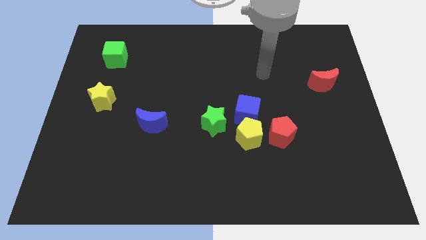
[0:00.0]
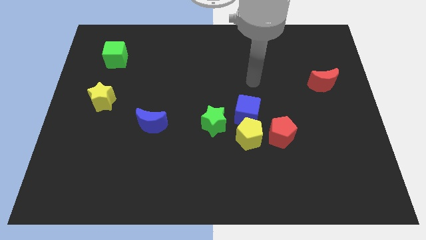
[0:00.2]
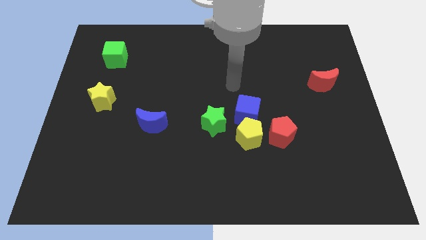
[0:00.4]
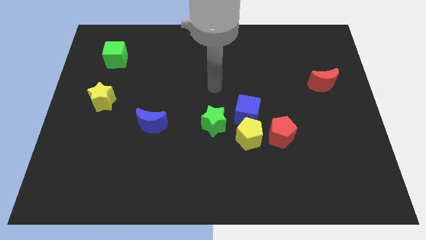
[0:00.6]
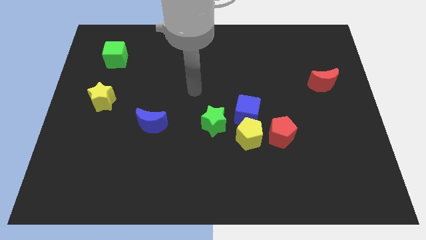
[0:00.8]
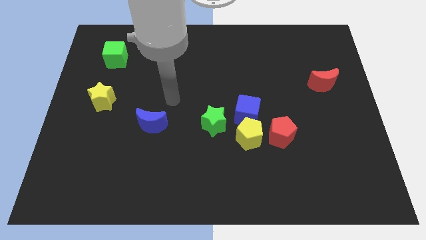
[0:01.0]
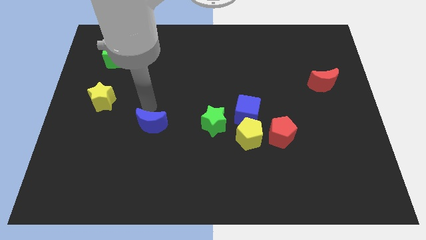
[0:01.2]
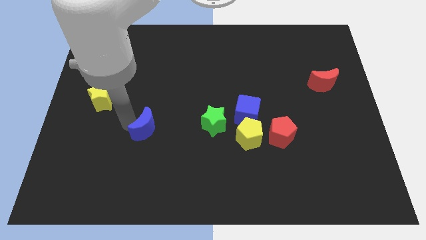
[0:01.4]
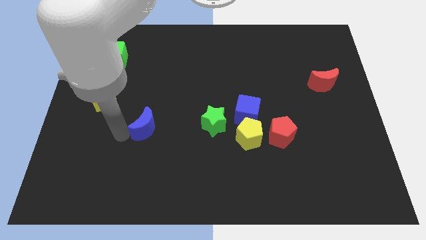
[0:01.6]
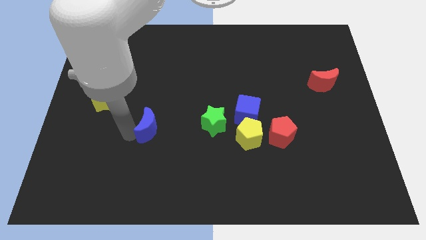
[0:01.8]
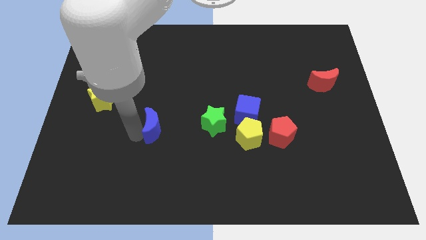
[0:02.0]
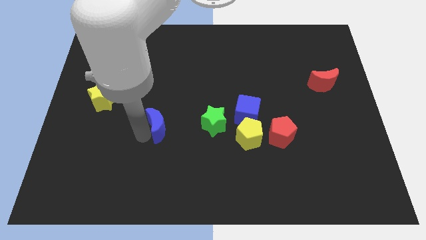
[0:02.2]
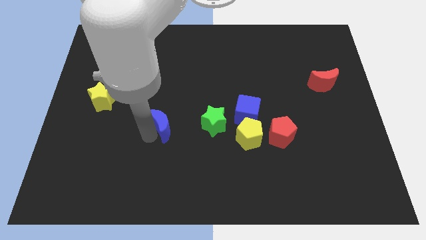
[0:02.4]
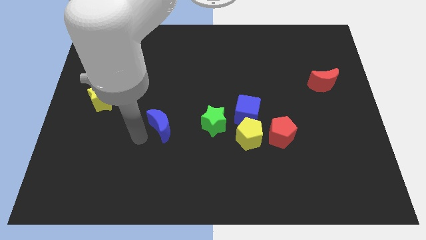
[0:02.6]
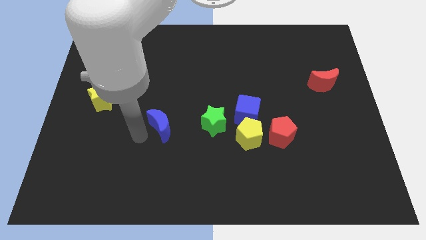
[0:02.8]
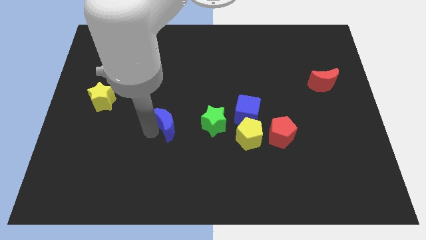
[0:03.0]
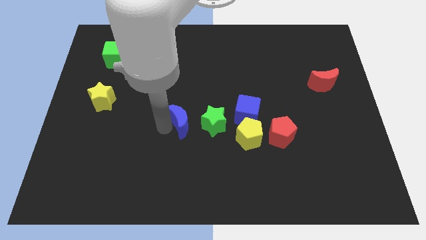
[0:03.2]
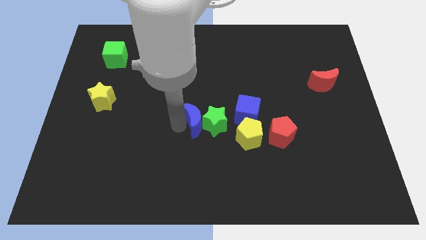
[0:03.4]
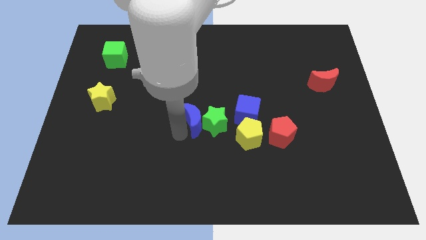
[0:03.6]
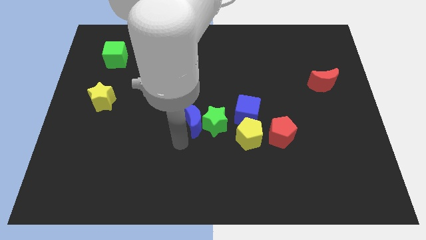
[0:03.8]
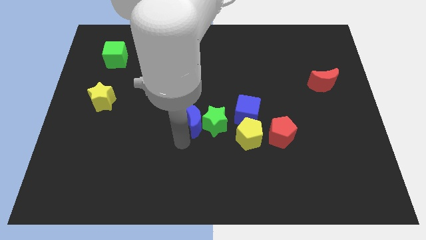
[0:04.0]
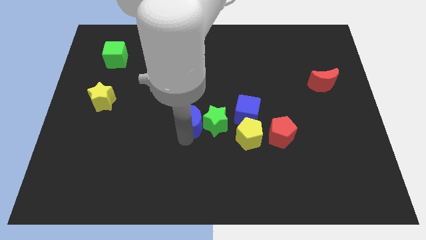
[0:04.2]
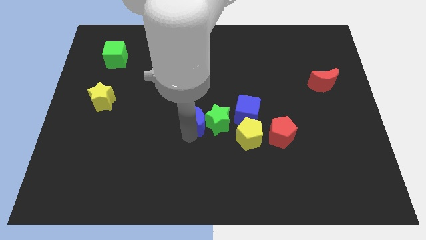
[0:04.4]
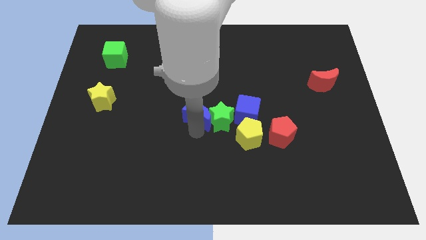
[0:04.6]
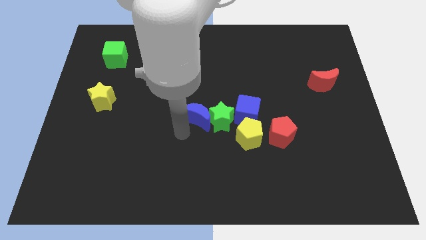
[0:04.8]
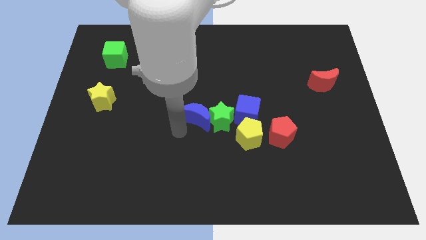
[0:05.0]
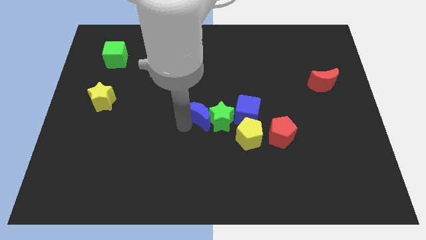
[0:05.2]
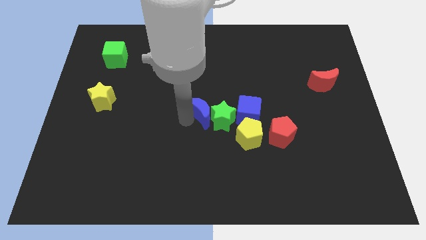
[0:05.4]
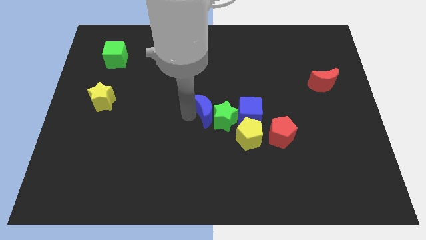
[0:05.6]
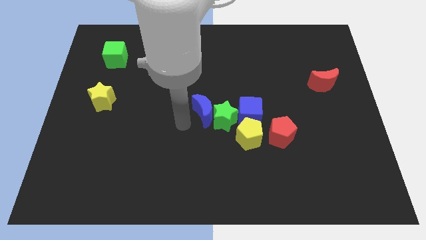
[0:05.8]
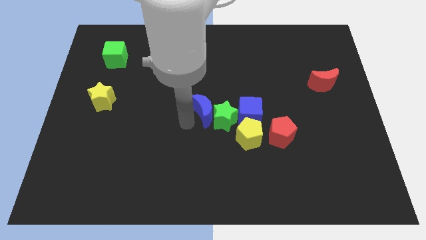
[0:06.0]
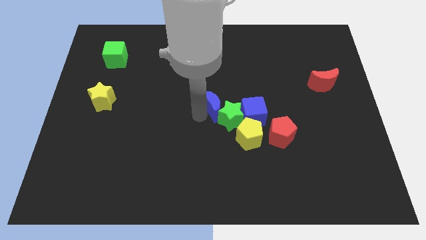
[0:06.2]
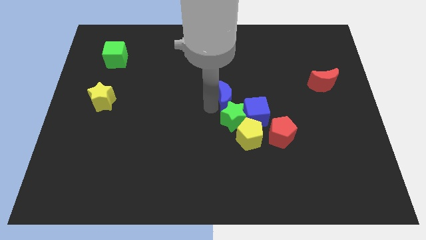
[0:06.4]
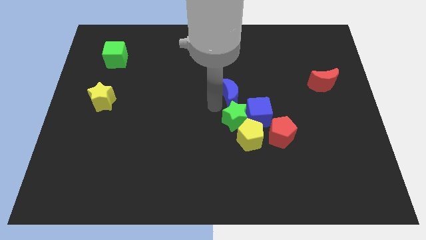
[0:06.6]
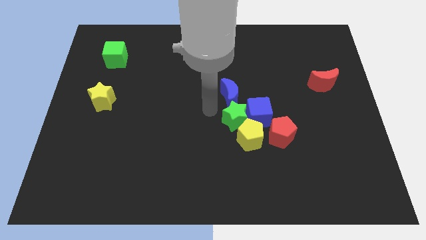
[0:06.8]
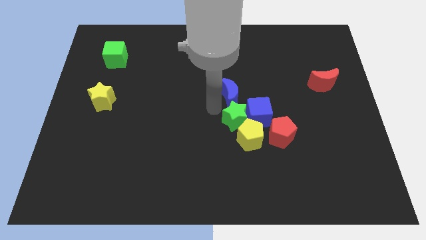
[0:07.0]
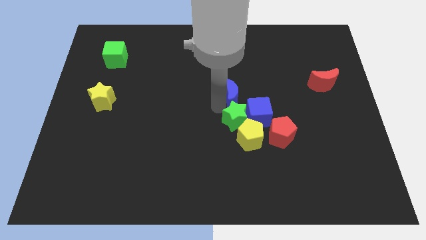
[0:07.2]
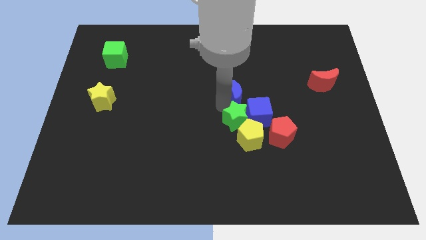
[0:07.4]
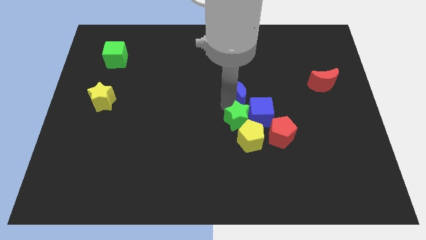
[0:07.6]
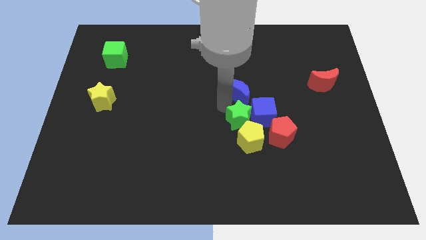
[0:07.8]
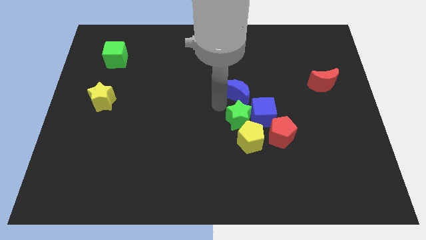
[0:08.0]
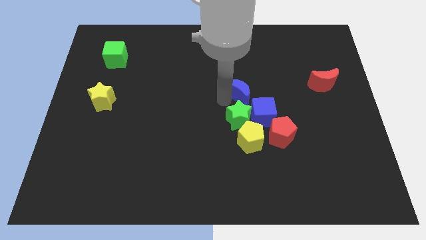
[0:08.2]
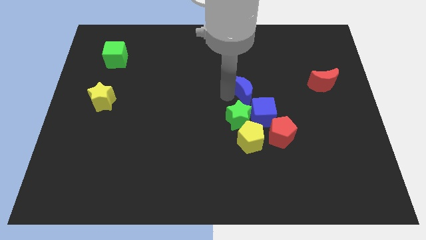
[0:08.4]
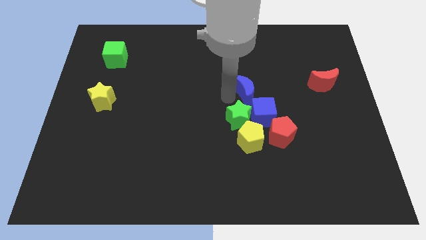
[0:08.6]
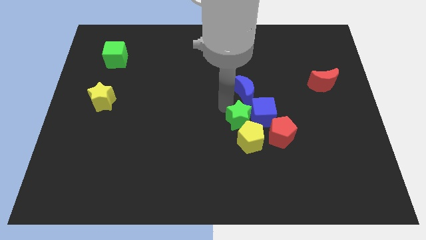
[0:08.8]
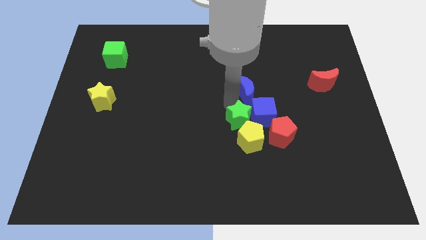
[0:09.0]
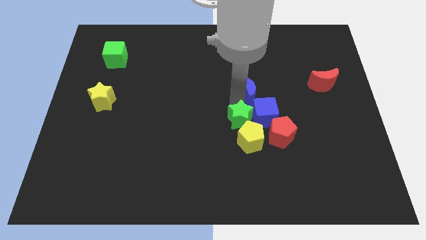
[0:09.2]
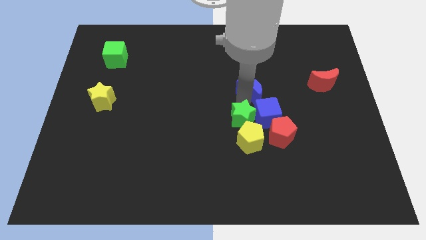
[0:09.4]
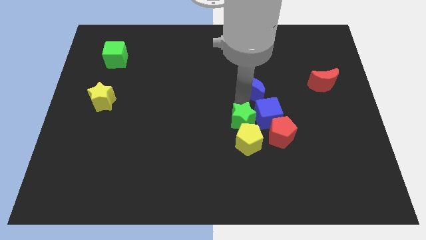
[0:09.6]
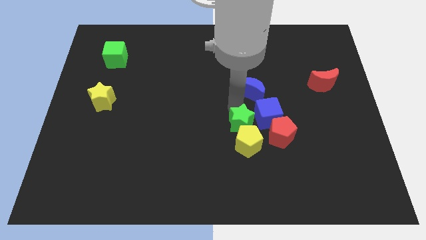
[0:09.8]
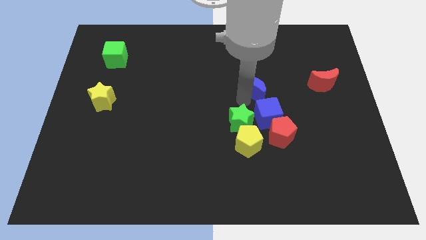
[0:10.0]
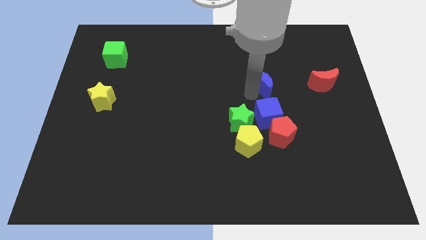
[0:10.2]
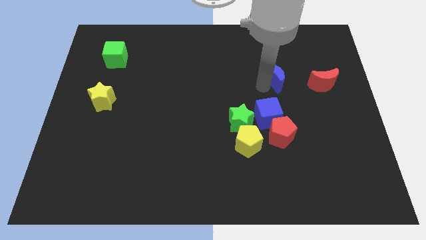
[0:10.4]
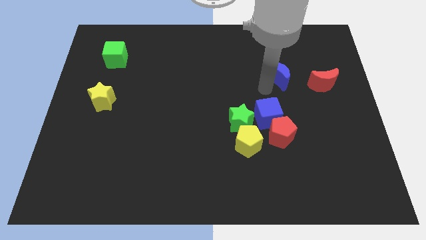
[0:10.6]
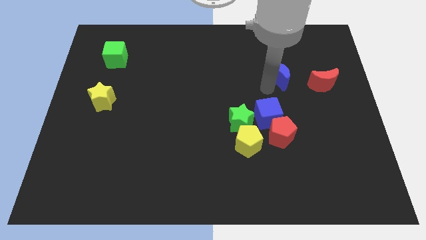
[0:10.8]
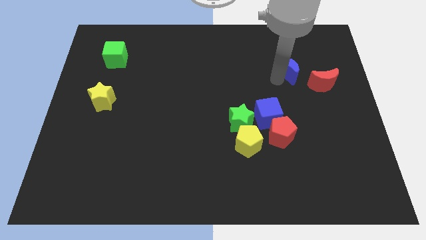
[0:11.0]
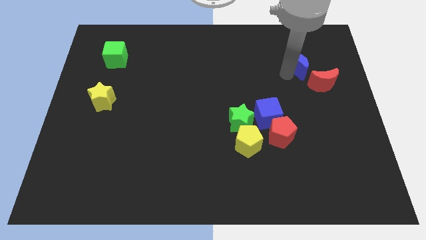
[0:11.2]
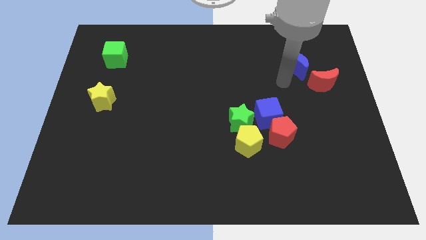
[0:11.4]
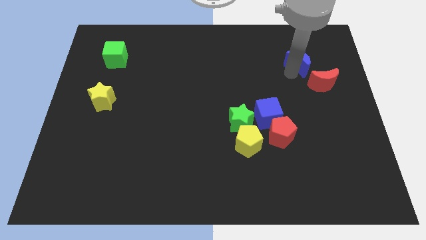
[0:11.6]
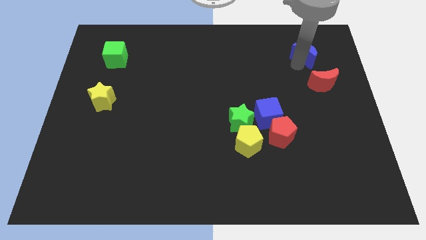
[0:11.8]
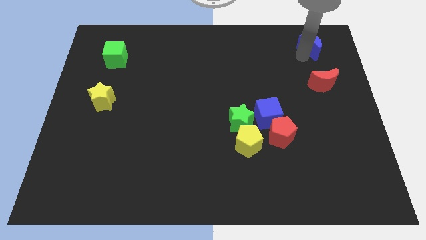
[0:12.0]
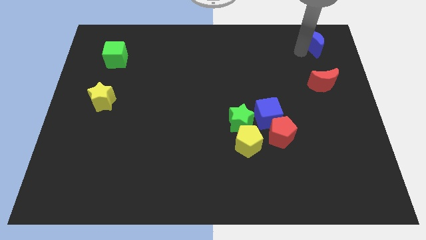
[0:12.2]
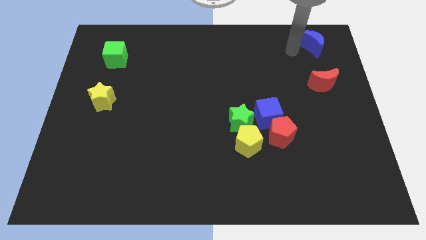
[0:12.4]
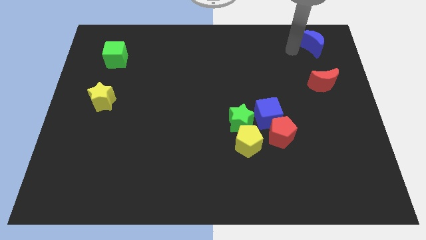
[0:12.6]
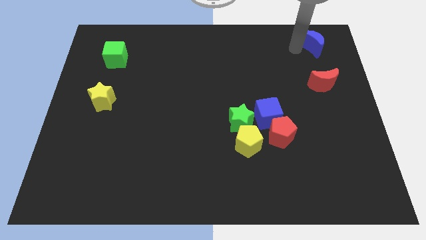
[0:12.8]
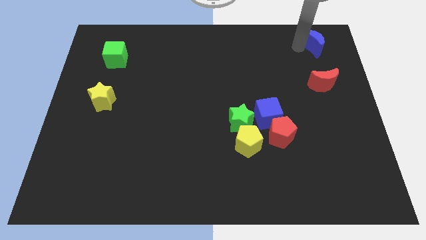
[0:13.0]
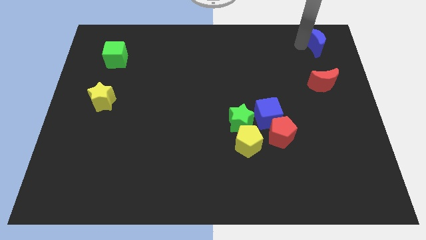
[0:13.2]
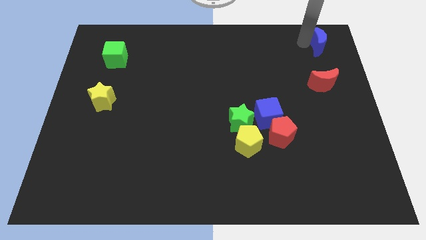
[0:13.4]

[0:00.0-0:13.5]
push the blue moon to the top right
